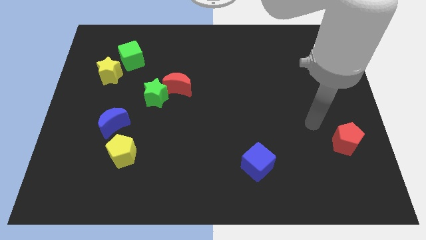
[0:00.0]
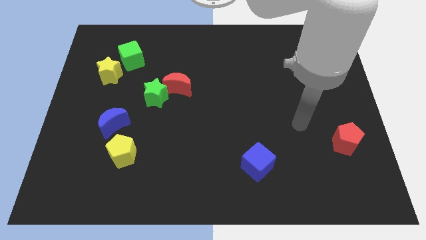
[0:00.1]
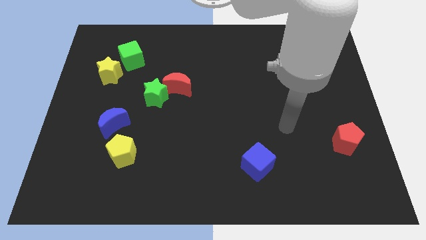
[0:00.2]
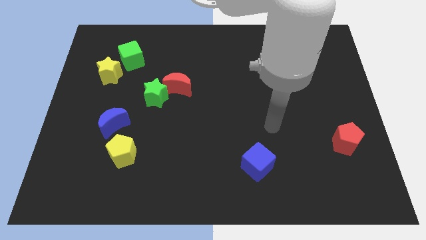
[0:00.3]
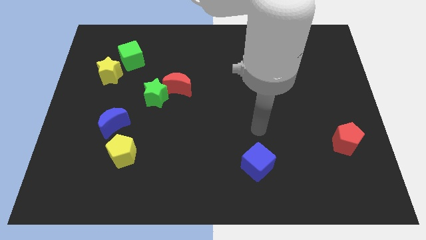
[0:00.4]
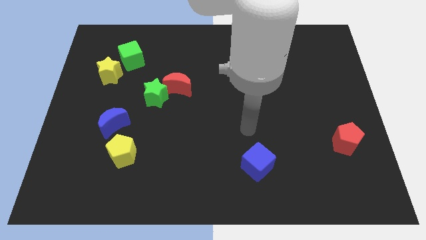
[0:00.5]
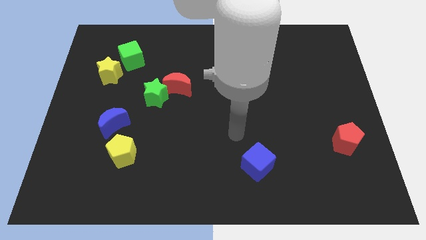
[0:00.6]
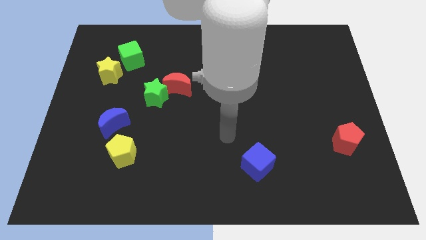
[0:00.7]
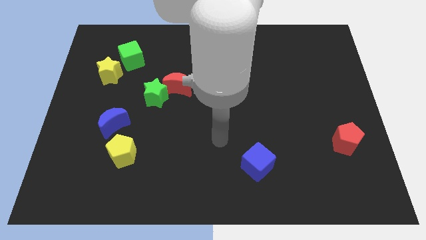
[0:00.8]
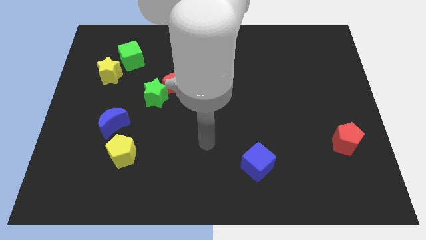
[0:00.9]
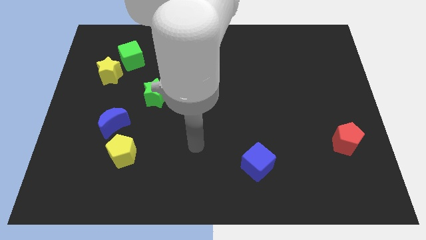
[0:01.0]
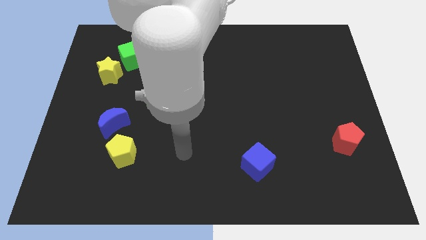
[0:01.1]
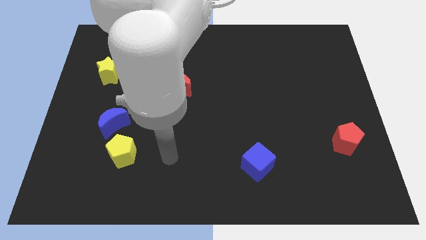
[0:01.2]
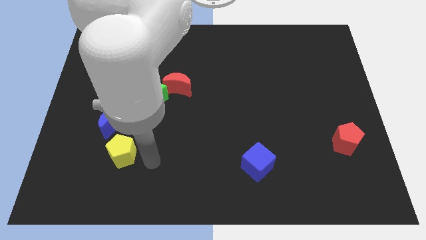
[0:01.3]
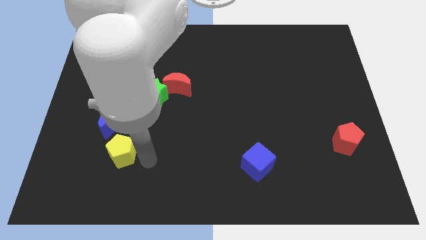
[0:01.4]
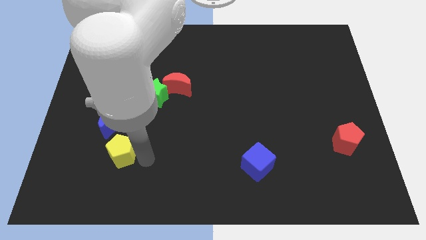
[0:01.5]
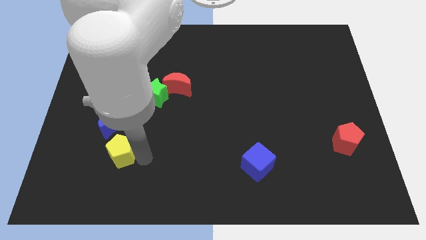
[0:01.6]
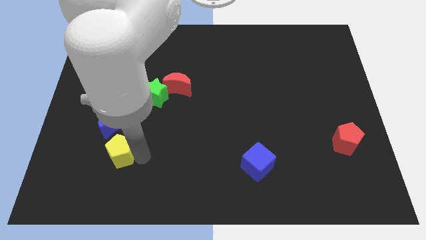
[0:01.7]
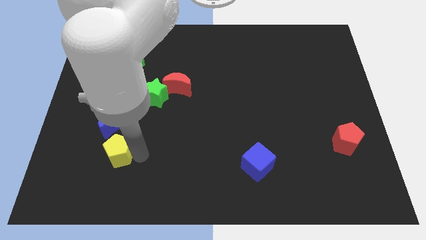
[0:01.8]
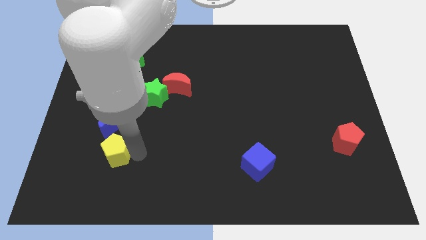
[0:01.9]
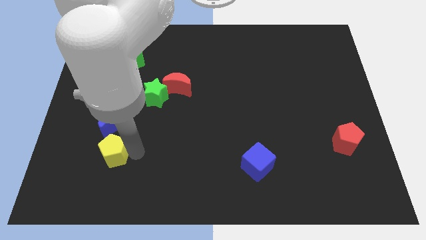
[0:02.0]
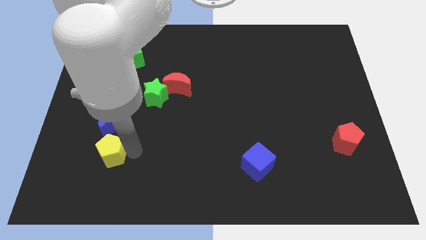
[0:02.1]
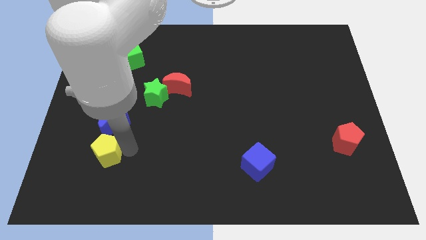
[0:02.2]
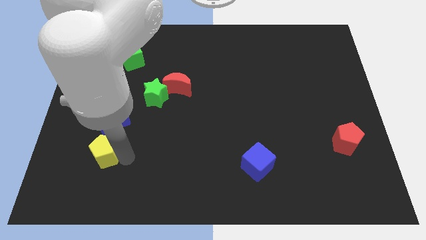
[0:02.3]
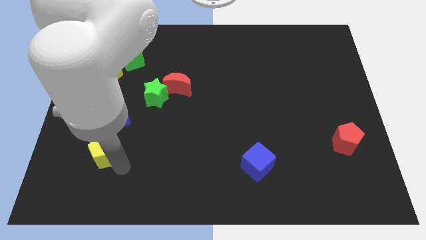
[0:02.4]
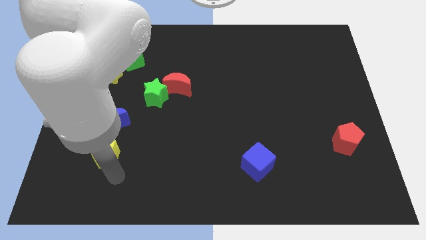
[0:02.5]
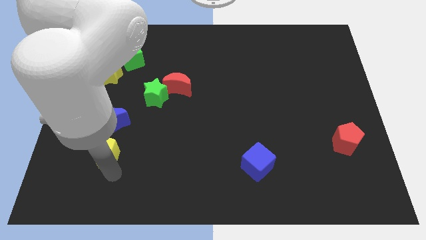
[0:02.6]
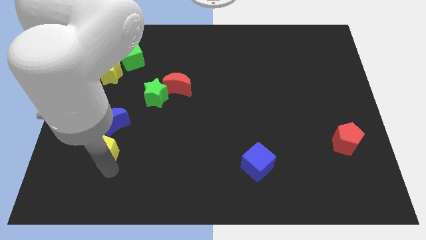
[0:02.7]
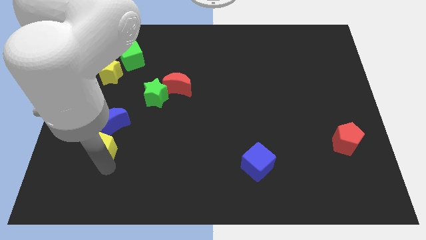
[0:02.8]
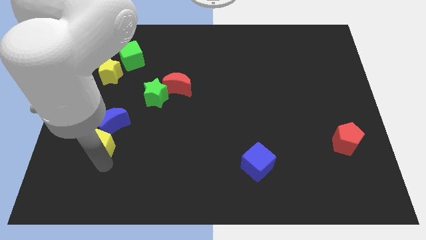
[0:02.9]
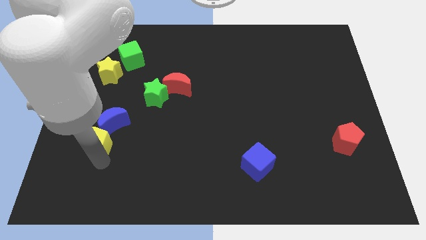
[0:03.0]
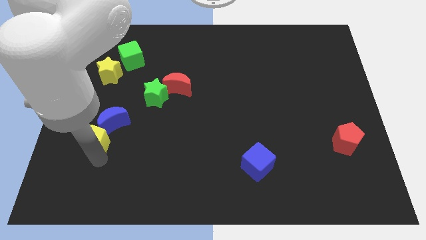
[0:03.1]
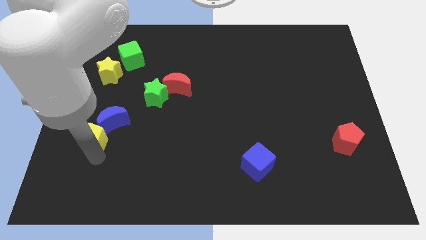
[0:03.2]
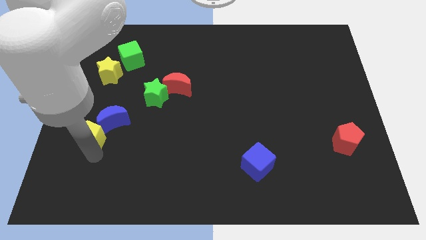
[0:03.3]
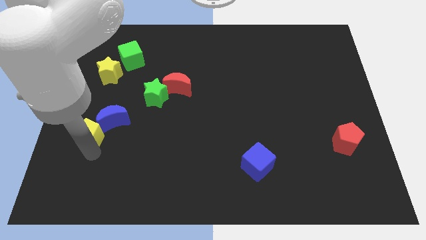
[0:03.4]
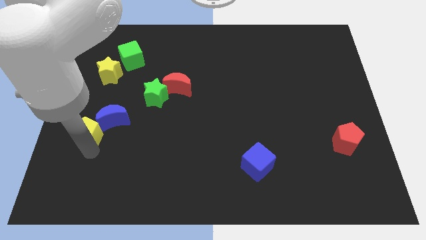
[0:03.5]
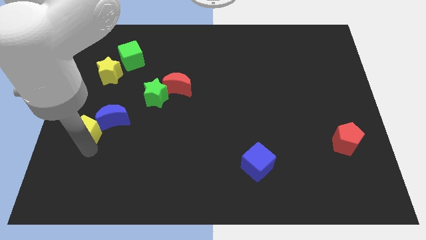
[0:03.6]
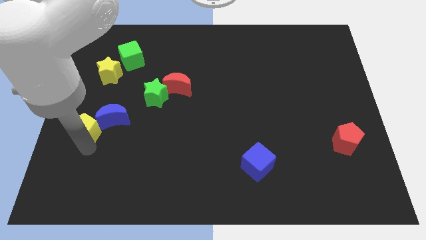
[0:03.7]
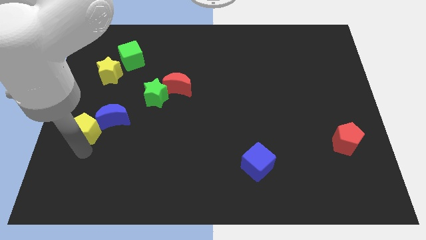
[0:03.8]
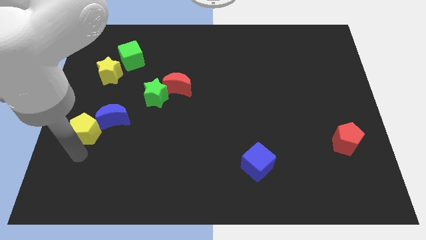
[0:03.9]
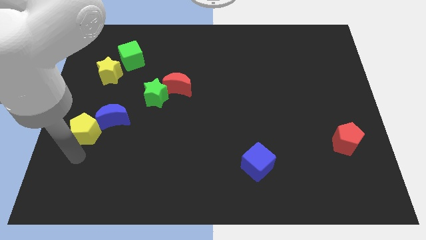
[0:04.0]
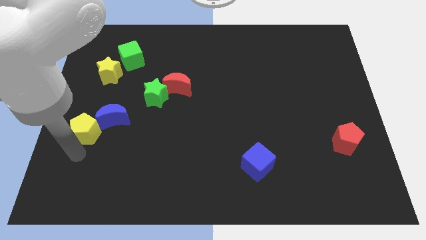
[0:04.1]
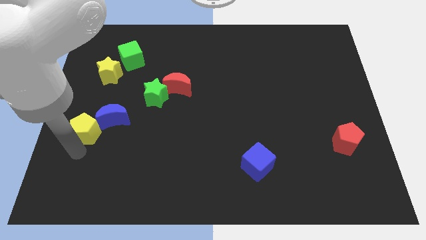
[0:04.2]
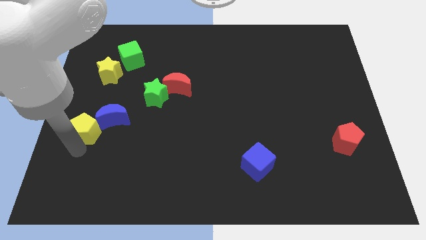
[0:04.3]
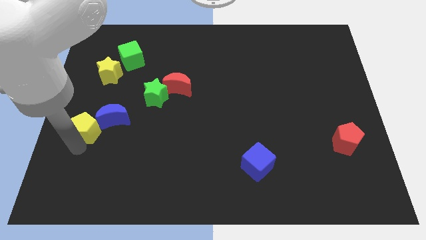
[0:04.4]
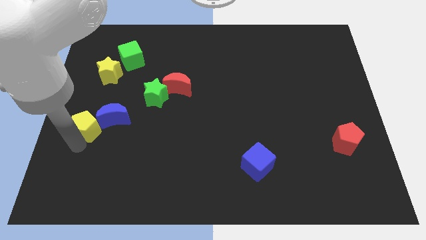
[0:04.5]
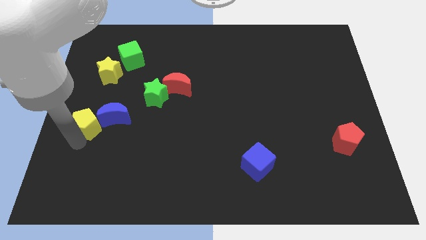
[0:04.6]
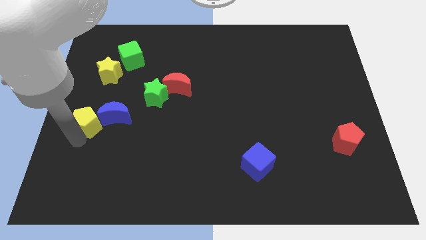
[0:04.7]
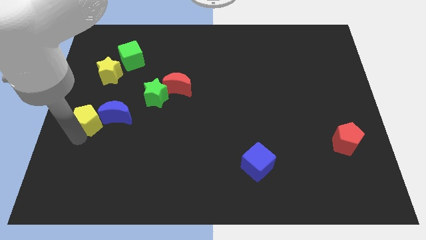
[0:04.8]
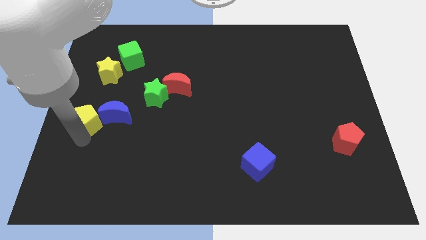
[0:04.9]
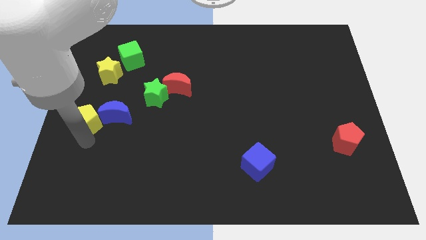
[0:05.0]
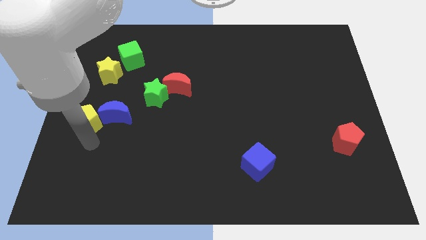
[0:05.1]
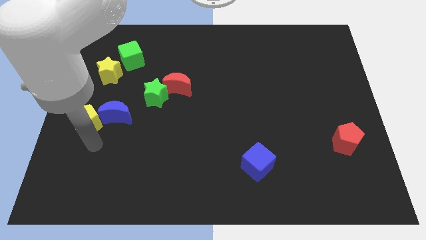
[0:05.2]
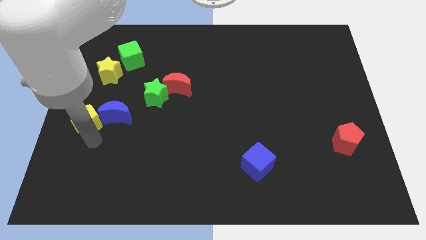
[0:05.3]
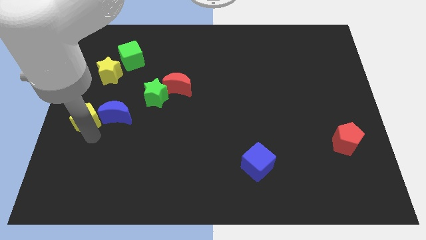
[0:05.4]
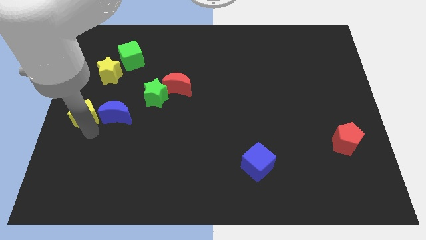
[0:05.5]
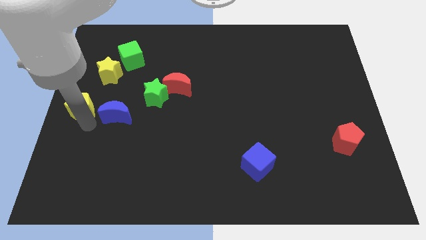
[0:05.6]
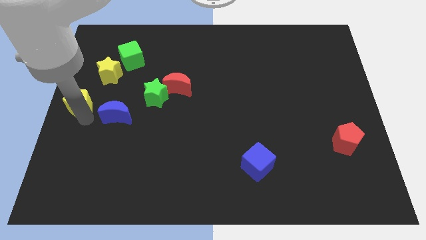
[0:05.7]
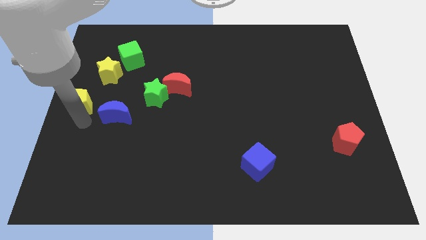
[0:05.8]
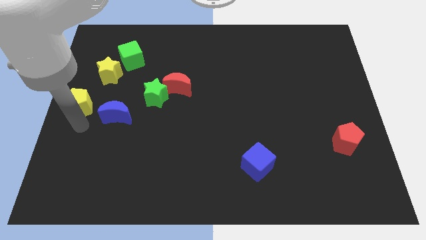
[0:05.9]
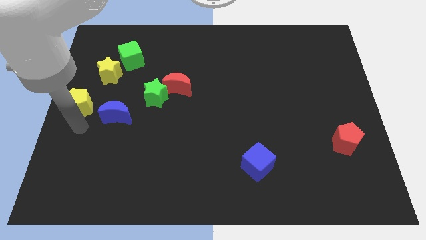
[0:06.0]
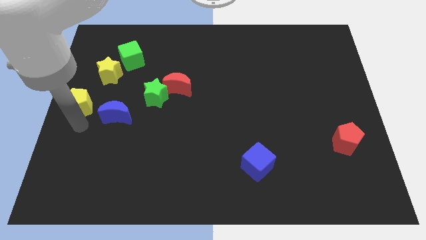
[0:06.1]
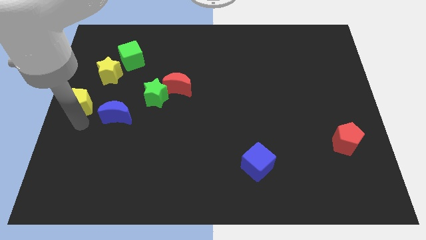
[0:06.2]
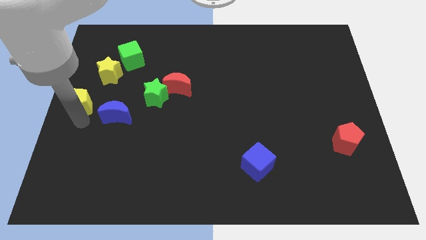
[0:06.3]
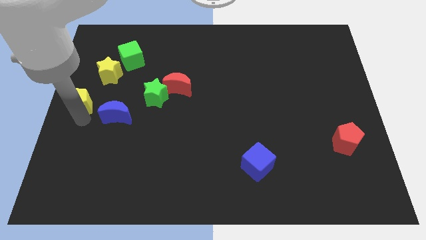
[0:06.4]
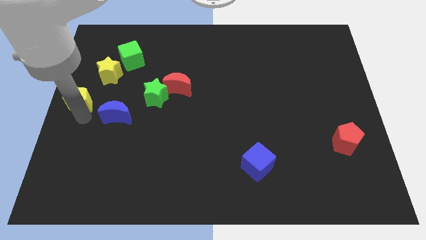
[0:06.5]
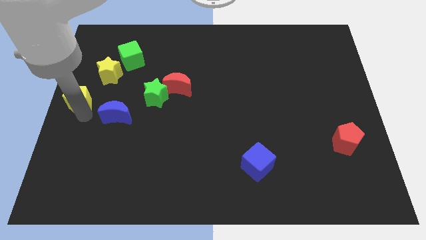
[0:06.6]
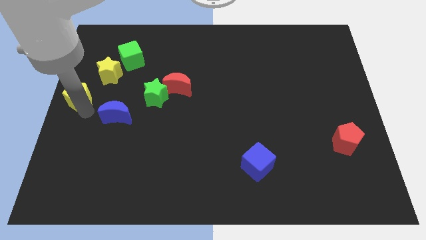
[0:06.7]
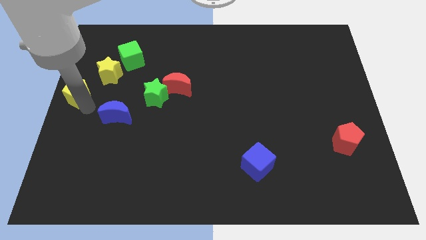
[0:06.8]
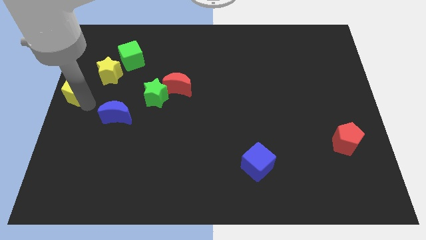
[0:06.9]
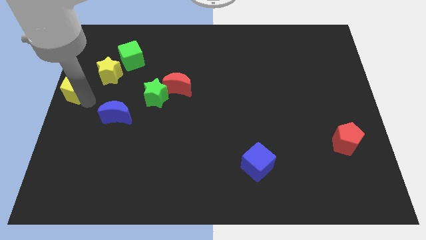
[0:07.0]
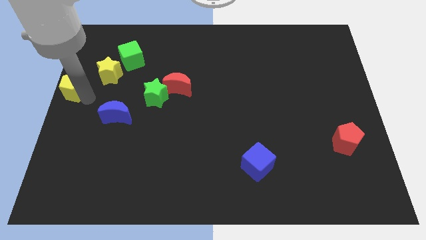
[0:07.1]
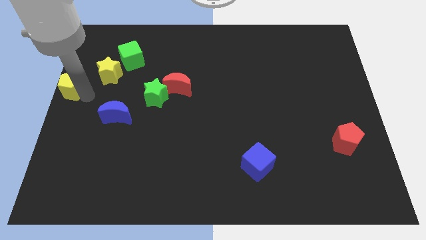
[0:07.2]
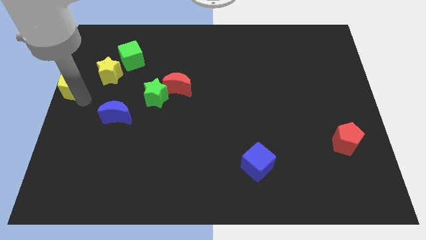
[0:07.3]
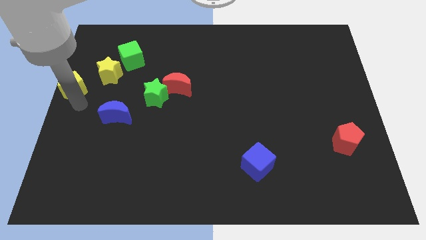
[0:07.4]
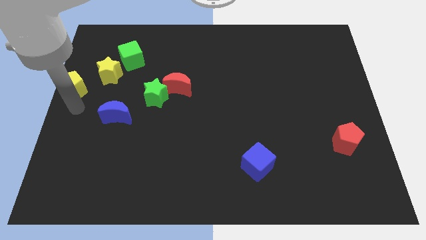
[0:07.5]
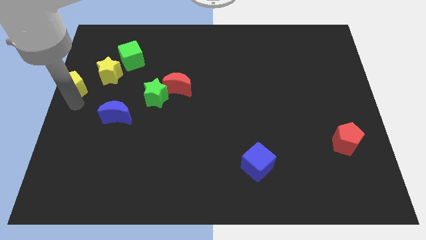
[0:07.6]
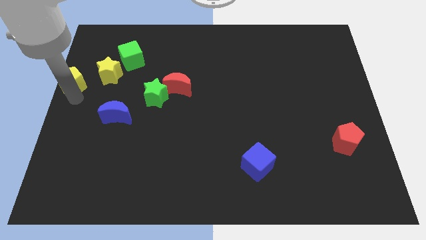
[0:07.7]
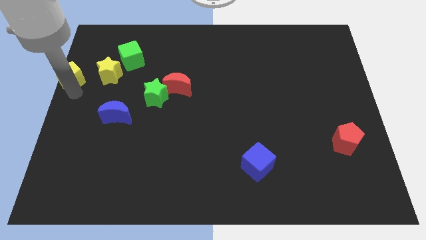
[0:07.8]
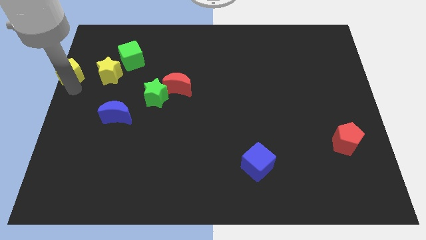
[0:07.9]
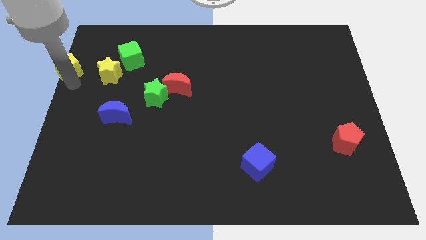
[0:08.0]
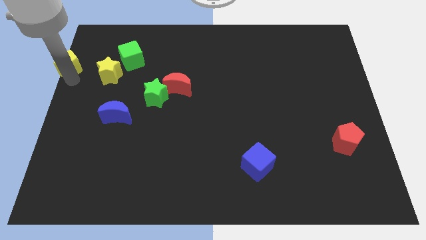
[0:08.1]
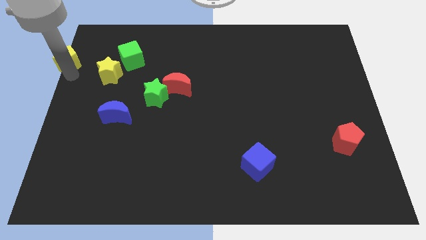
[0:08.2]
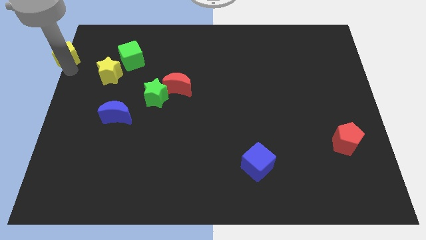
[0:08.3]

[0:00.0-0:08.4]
slide the yellow pentagon to the top left of the board
